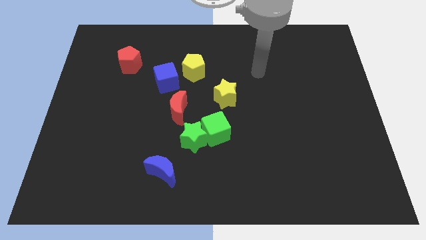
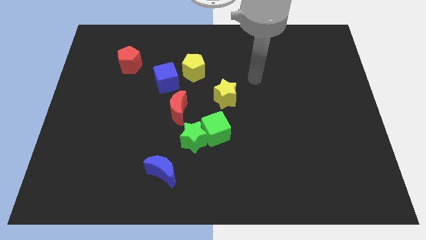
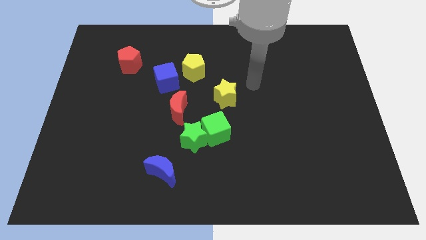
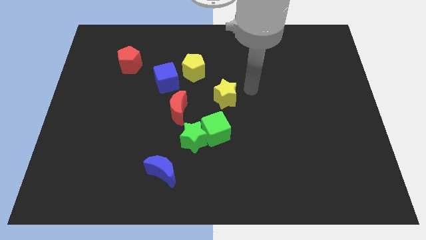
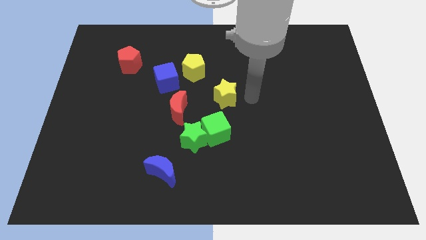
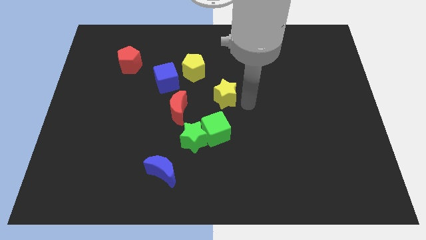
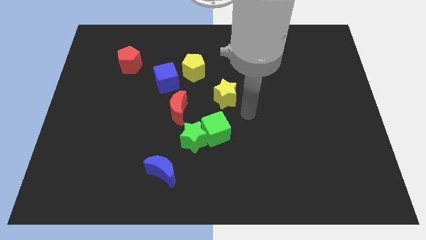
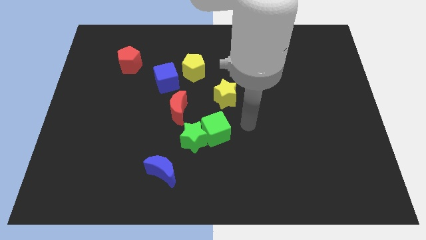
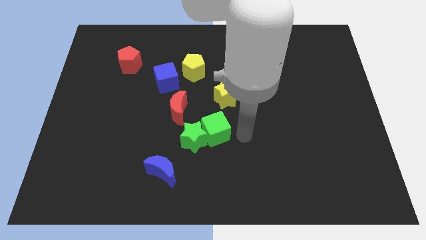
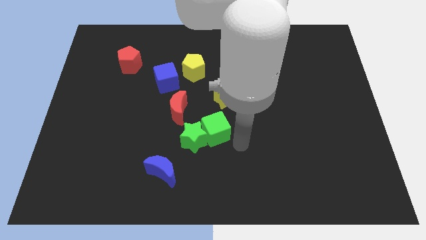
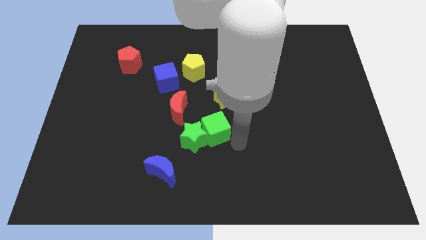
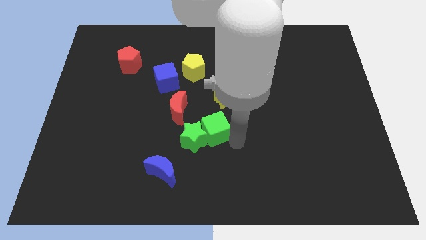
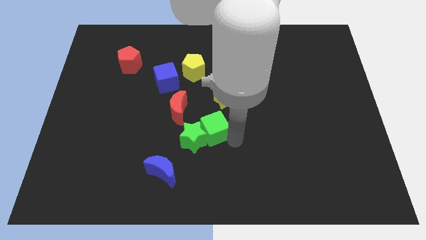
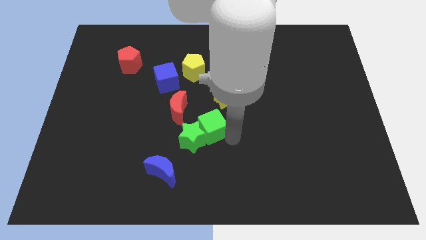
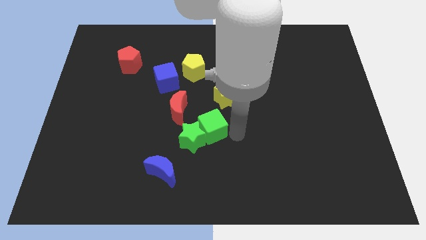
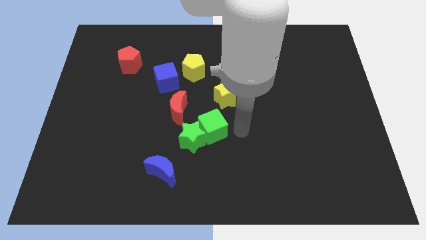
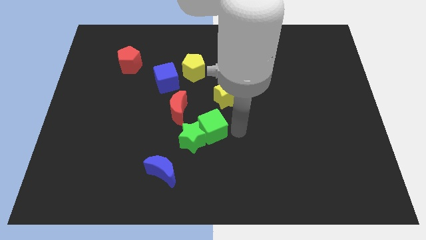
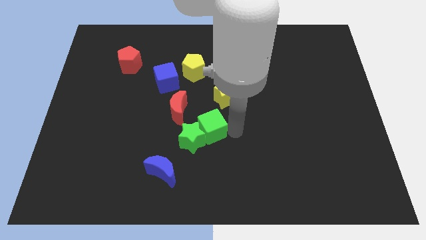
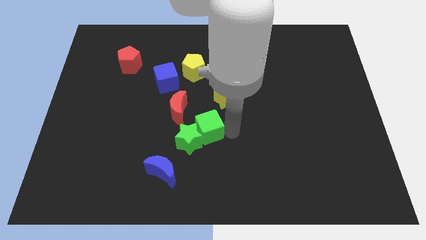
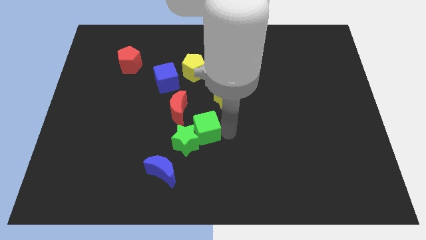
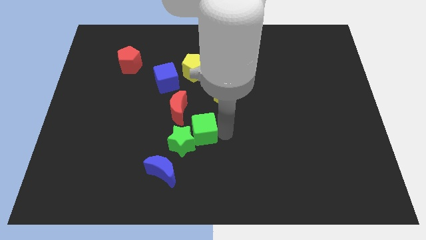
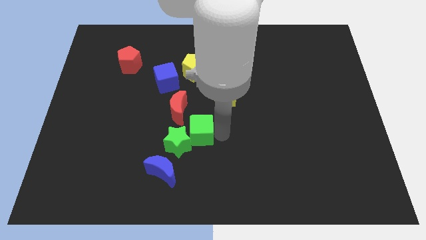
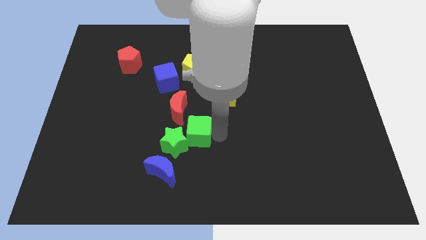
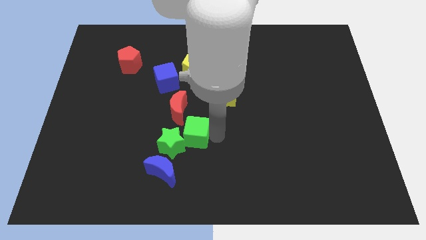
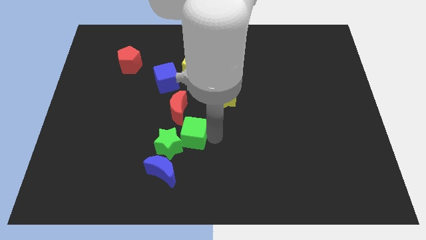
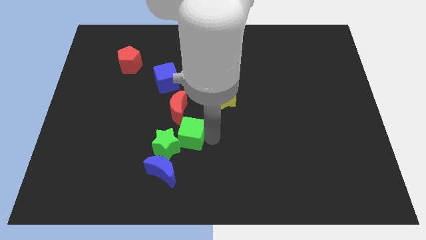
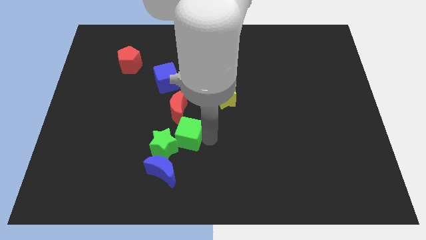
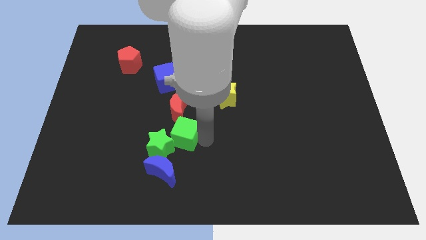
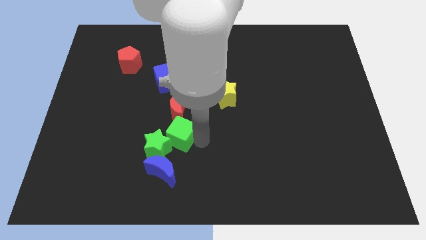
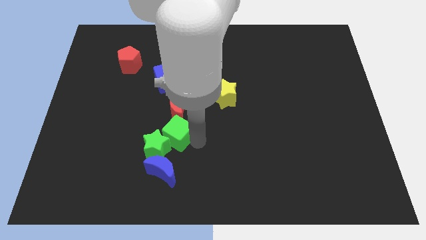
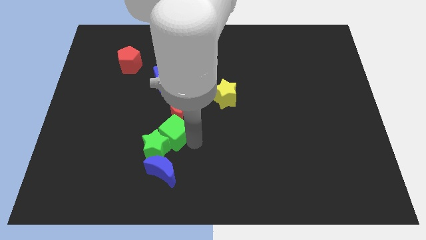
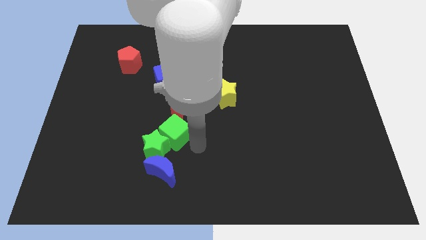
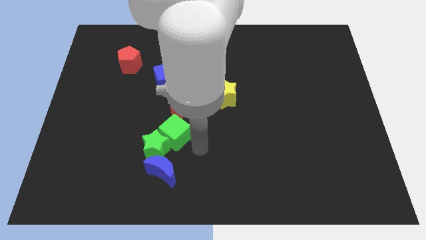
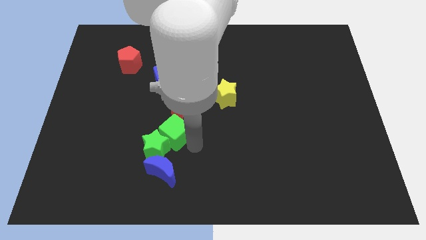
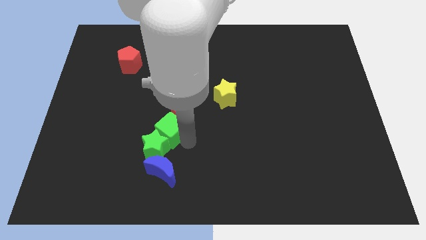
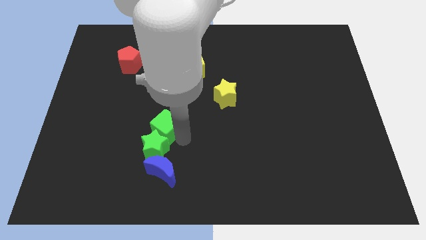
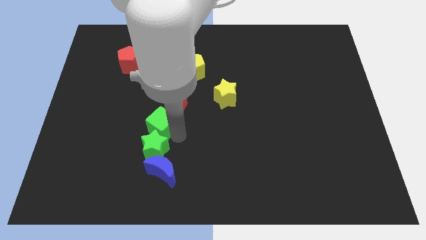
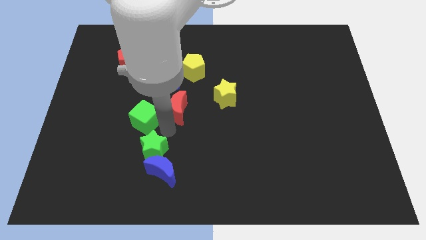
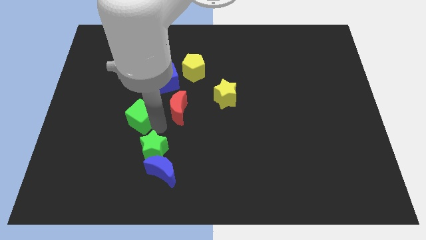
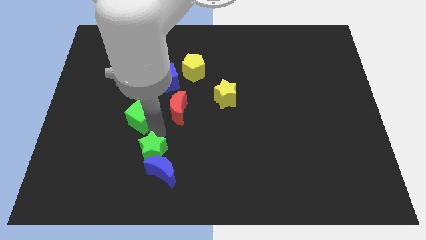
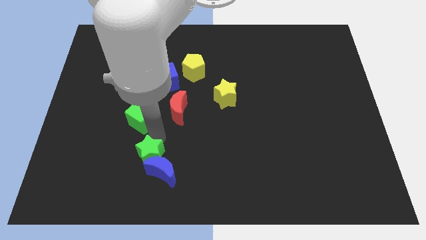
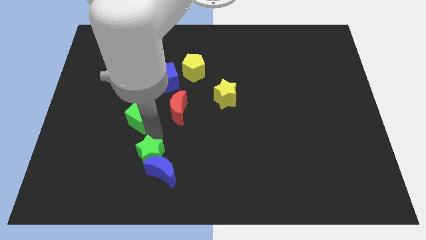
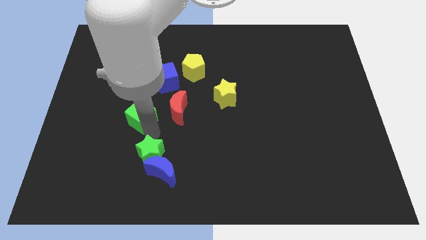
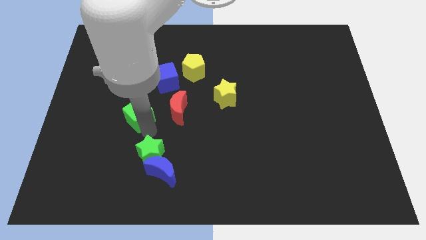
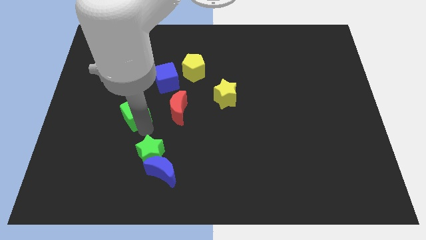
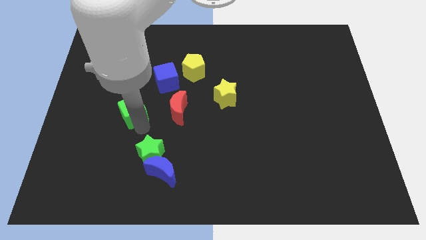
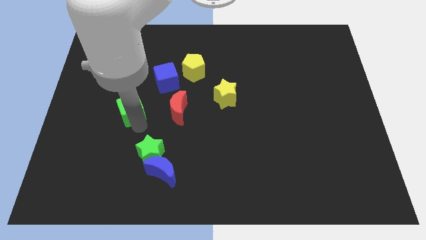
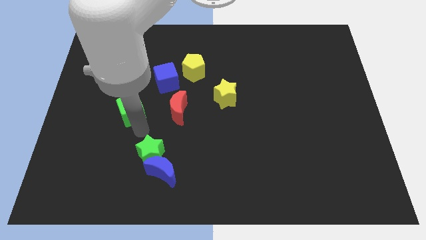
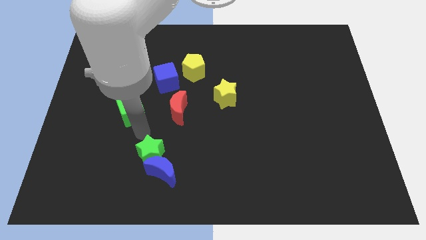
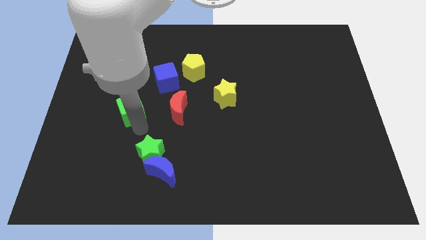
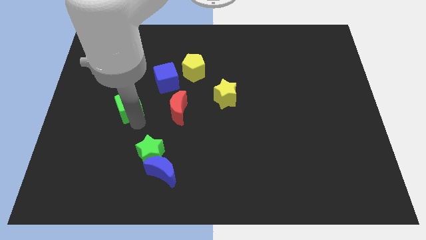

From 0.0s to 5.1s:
move the green cube to the bottom of the red pentagon

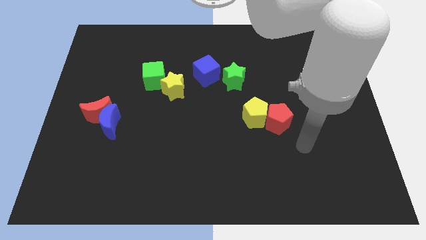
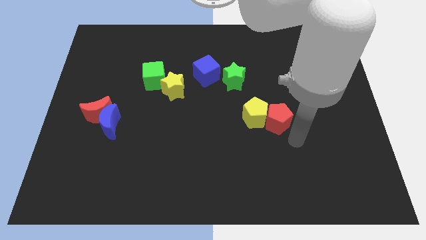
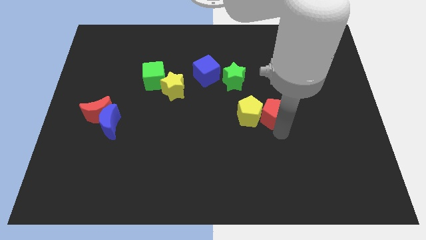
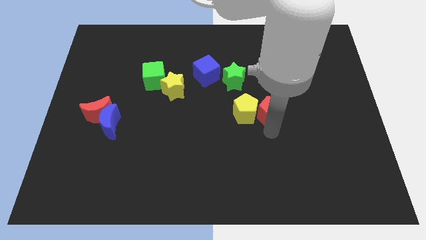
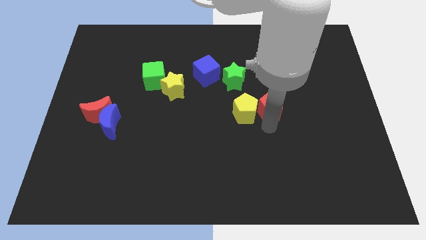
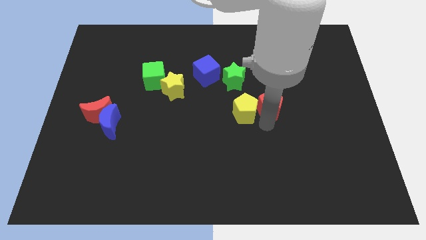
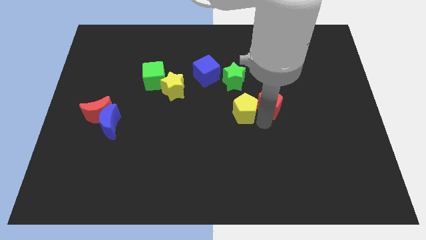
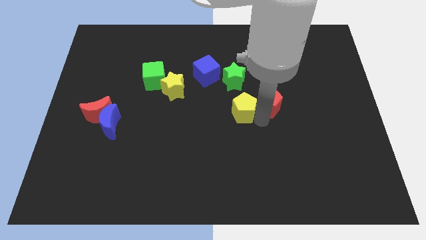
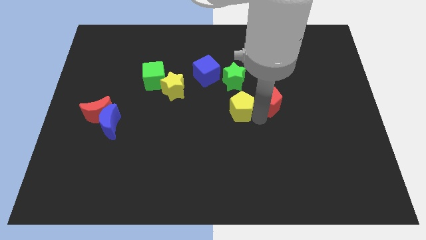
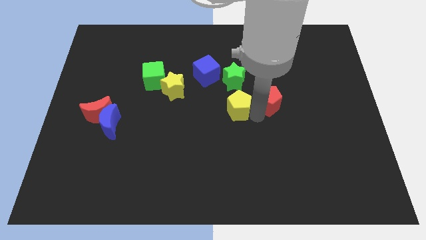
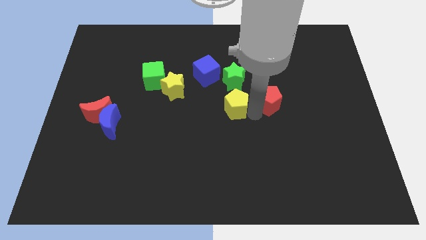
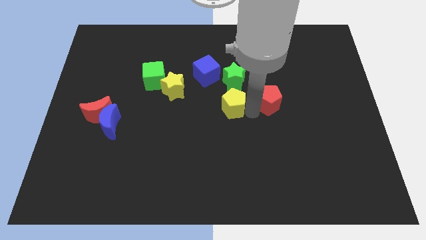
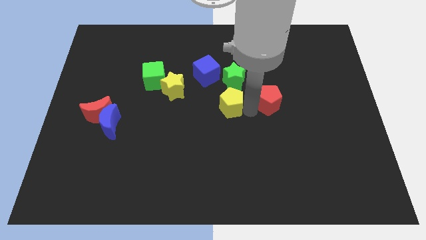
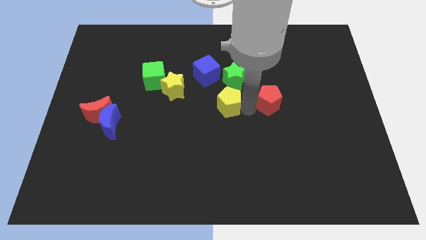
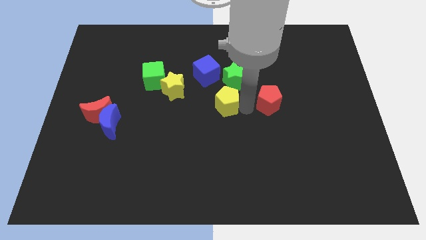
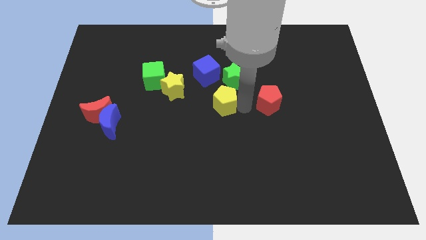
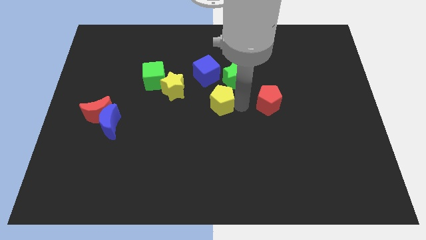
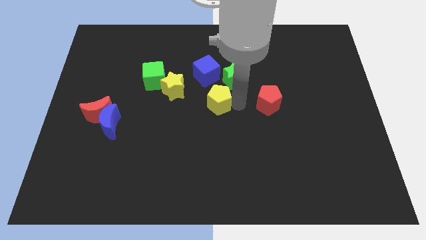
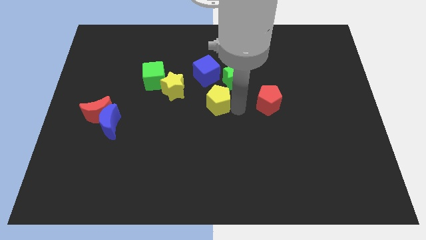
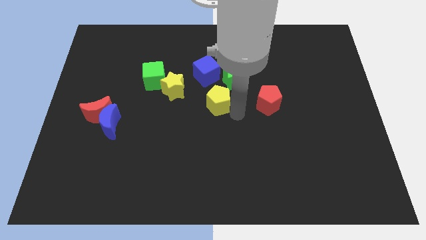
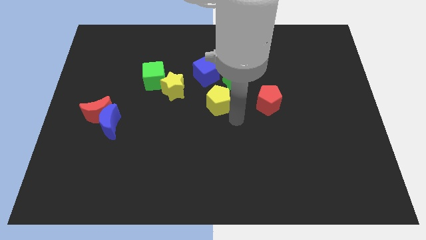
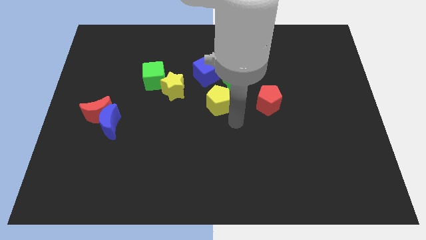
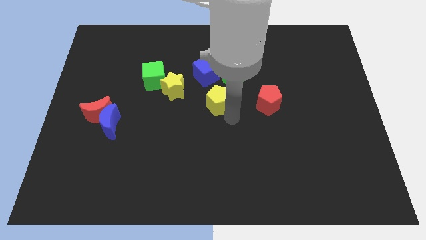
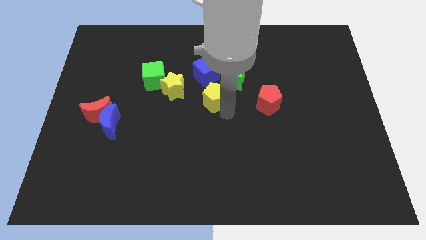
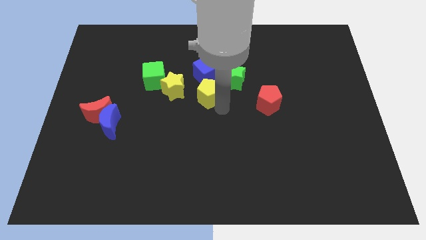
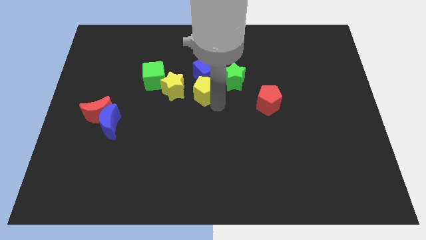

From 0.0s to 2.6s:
push the yellow pentagon left of the green star
